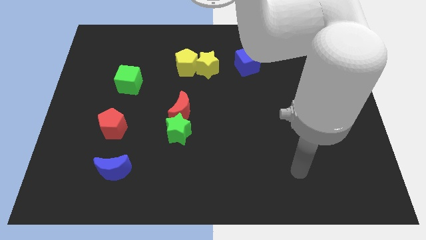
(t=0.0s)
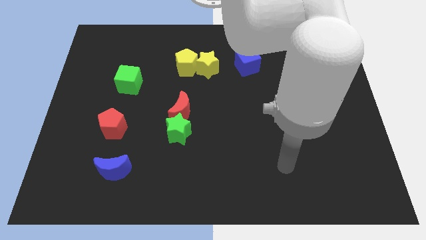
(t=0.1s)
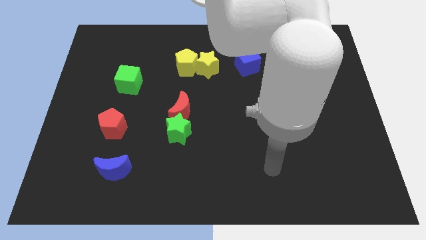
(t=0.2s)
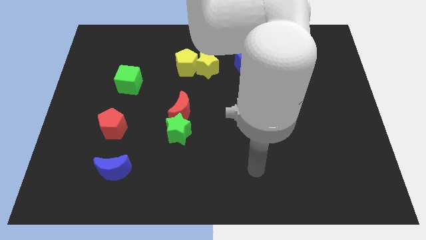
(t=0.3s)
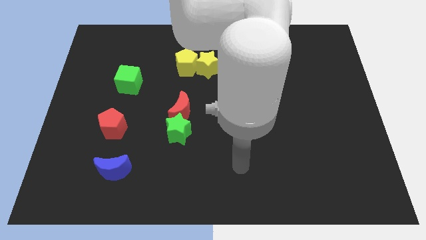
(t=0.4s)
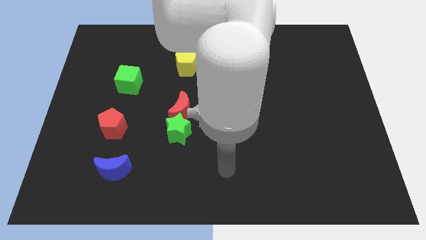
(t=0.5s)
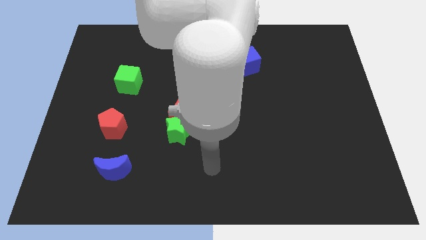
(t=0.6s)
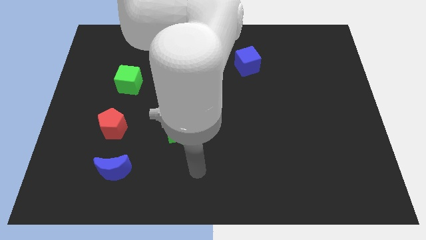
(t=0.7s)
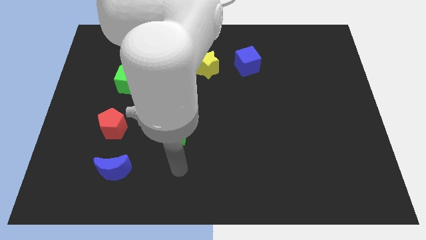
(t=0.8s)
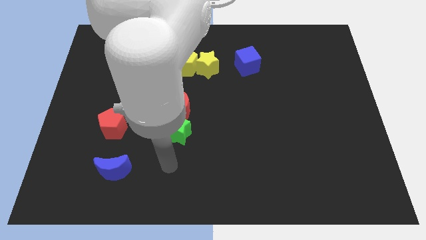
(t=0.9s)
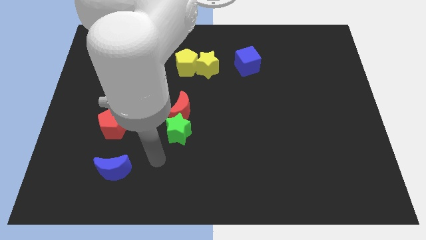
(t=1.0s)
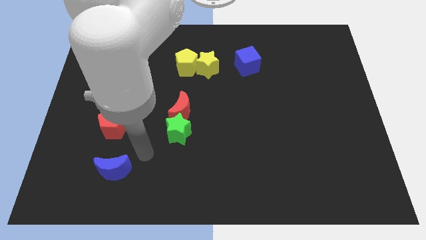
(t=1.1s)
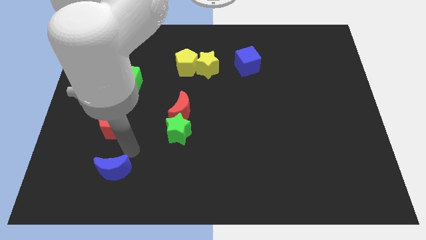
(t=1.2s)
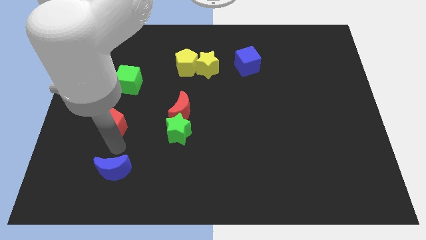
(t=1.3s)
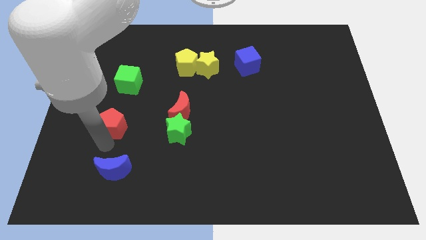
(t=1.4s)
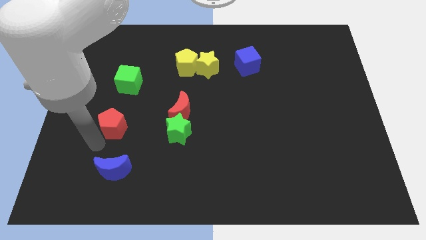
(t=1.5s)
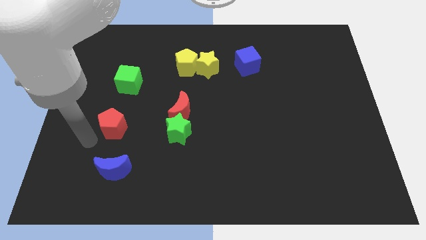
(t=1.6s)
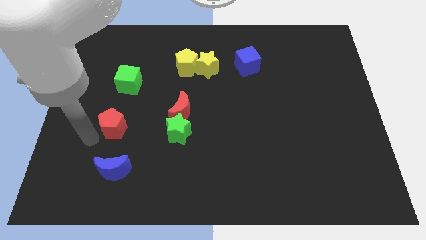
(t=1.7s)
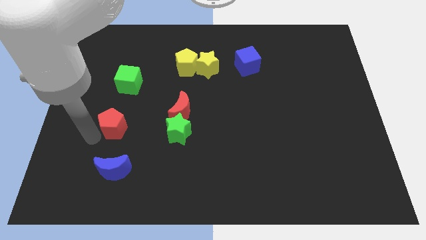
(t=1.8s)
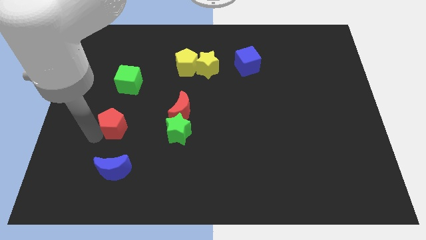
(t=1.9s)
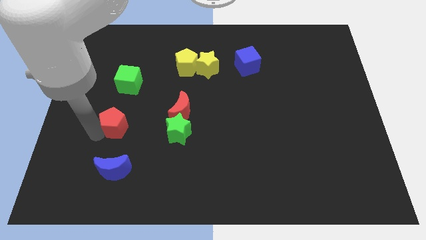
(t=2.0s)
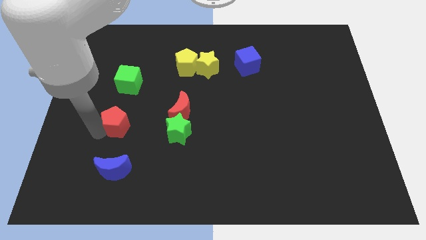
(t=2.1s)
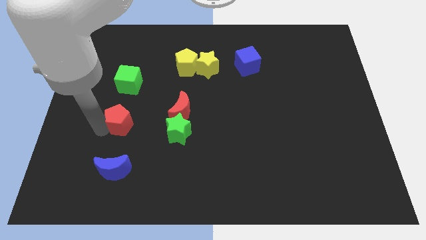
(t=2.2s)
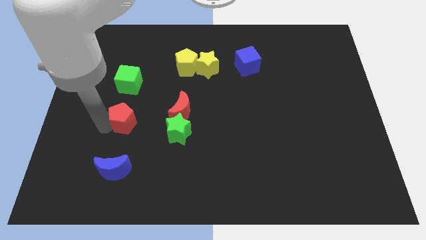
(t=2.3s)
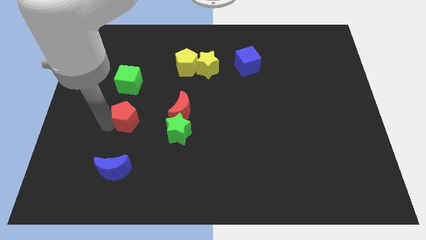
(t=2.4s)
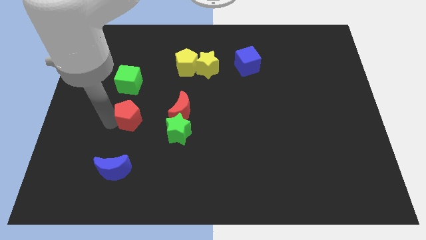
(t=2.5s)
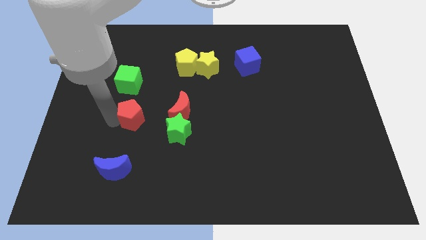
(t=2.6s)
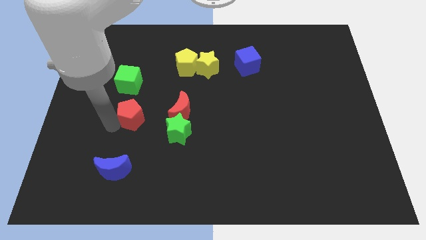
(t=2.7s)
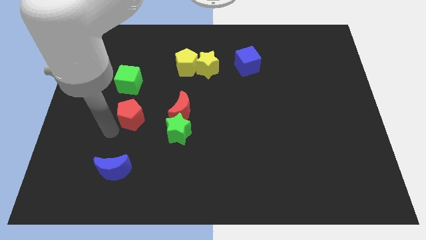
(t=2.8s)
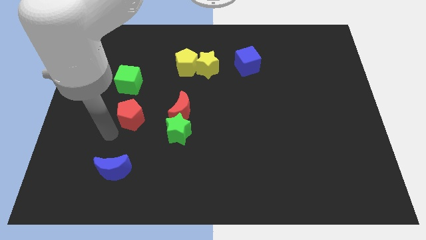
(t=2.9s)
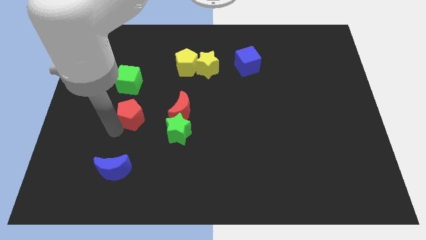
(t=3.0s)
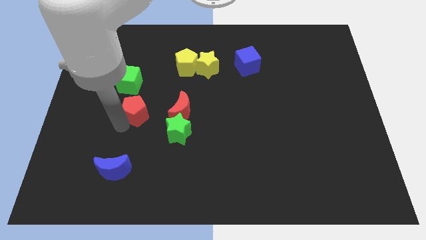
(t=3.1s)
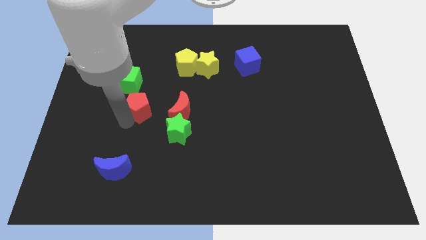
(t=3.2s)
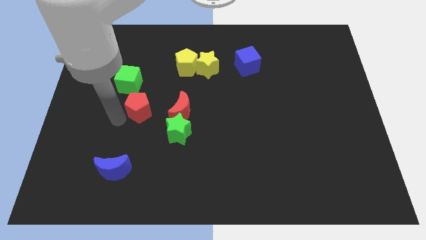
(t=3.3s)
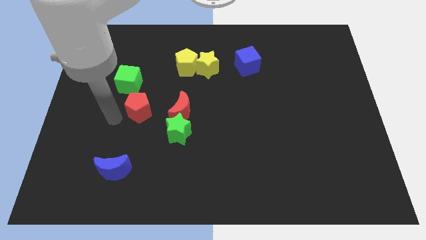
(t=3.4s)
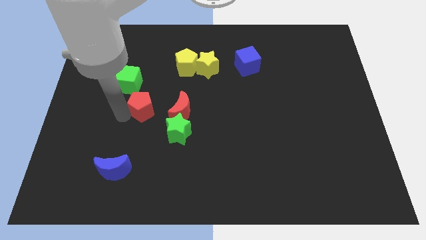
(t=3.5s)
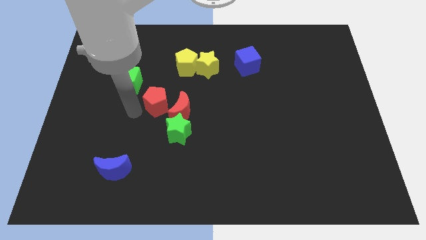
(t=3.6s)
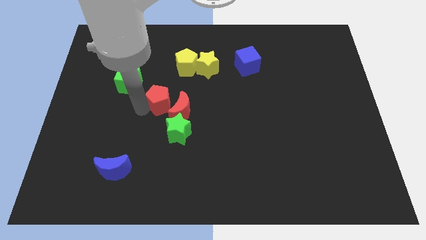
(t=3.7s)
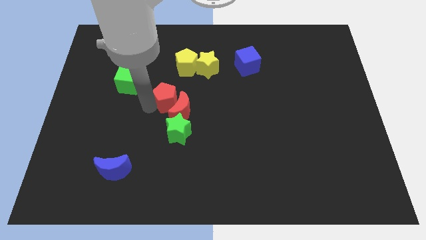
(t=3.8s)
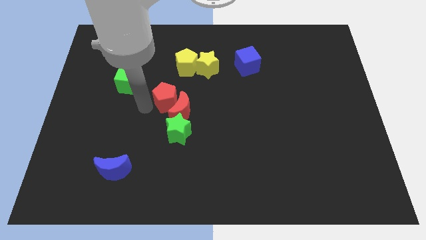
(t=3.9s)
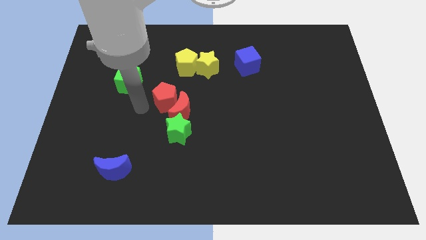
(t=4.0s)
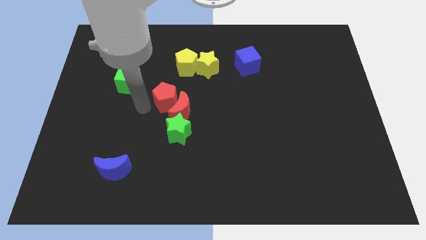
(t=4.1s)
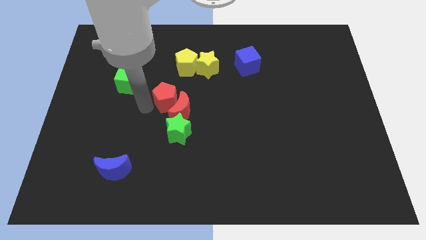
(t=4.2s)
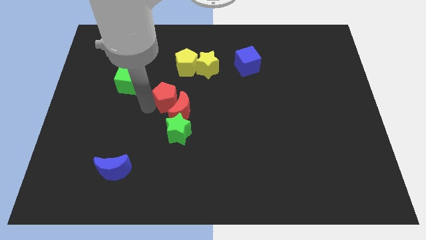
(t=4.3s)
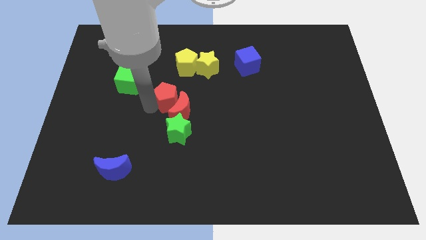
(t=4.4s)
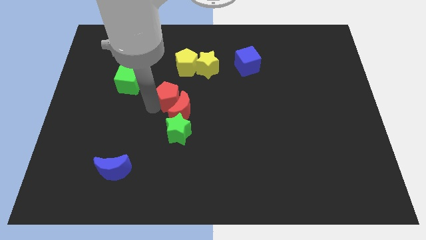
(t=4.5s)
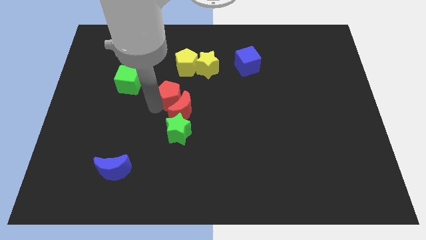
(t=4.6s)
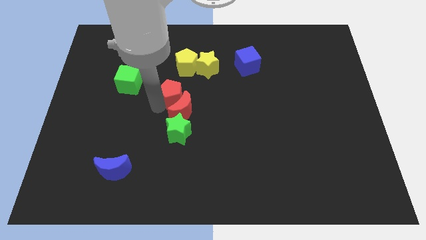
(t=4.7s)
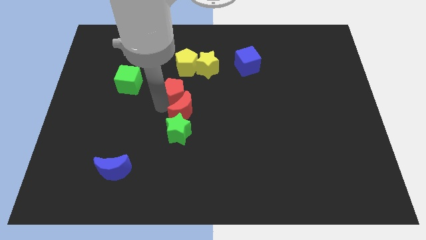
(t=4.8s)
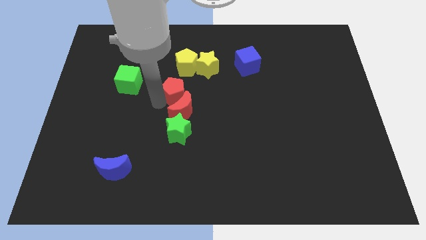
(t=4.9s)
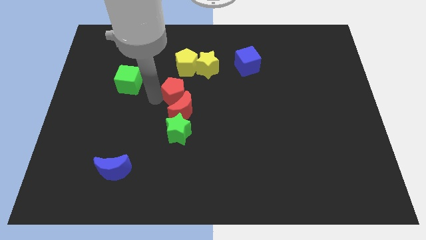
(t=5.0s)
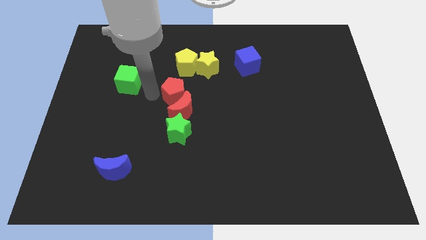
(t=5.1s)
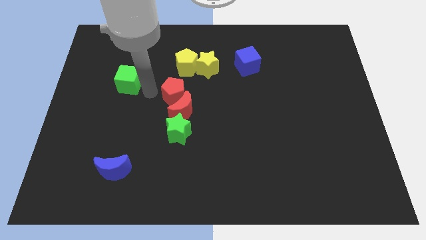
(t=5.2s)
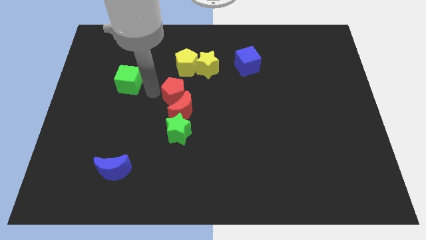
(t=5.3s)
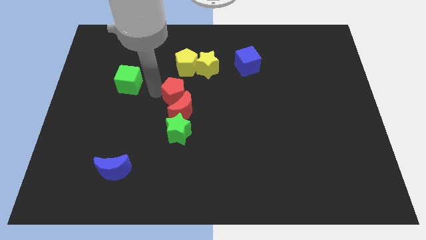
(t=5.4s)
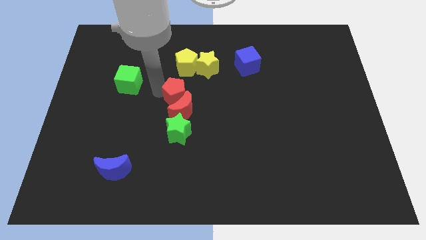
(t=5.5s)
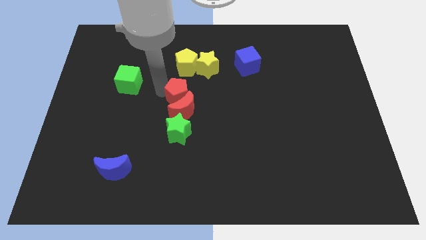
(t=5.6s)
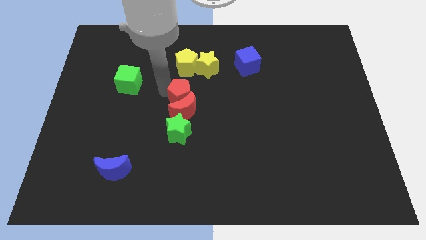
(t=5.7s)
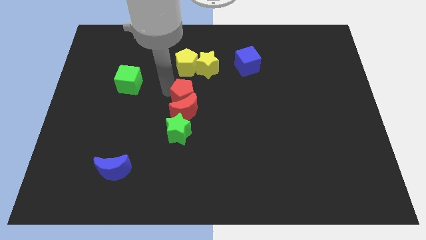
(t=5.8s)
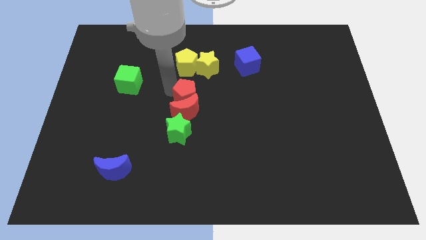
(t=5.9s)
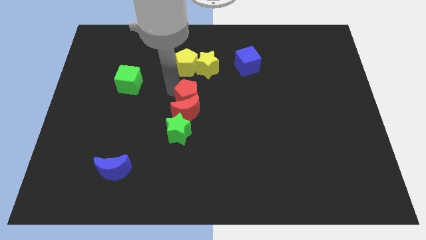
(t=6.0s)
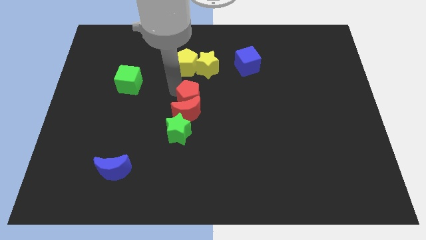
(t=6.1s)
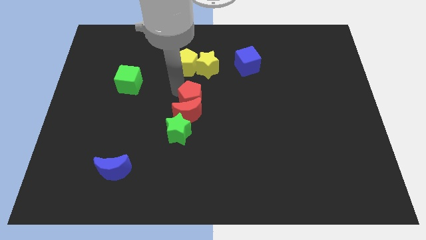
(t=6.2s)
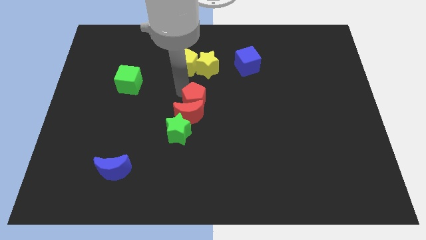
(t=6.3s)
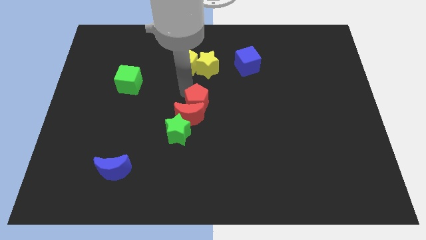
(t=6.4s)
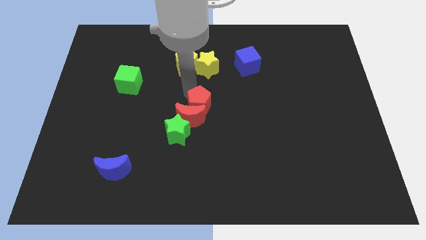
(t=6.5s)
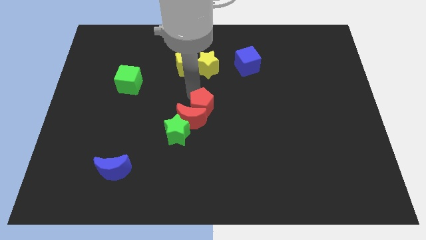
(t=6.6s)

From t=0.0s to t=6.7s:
move the red pentagon just right of the red moon
